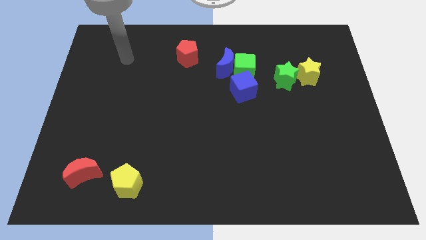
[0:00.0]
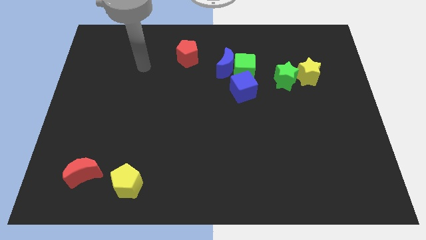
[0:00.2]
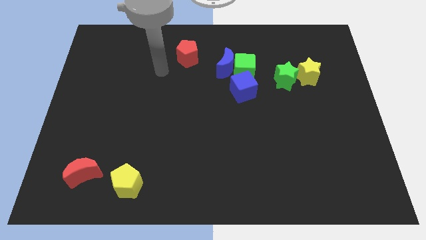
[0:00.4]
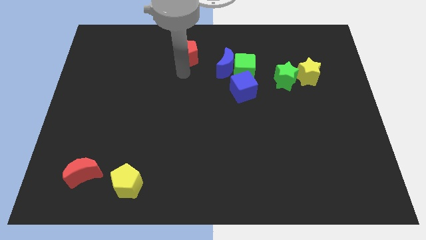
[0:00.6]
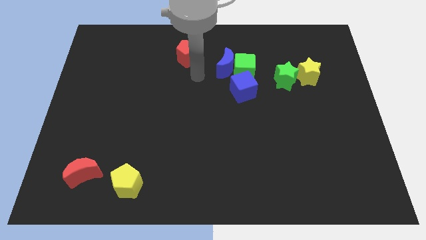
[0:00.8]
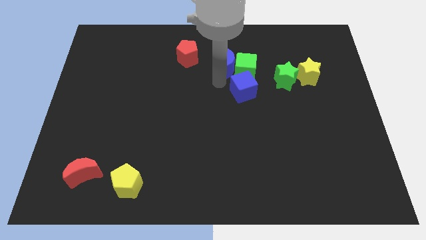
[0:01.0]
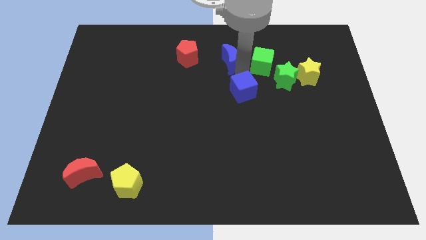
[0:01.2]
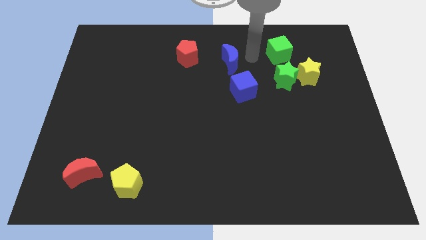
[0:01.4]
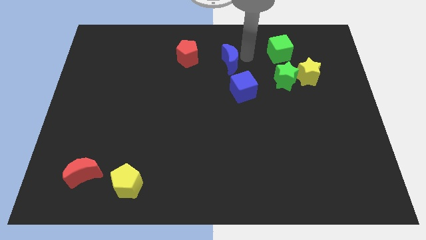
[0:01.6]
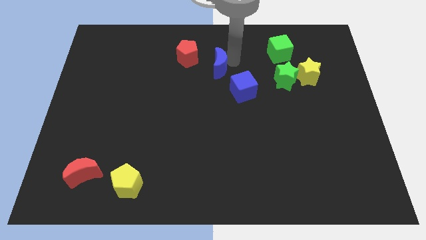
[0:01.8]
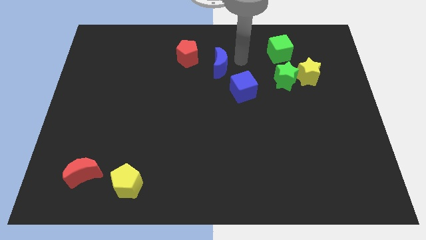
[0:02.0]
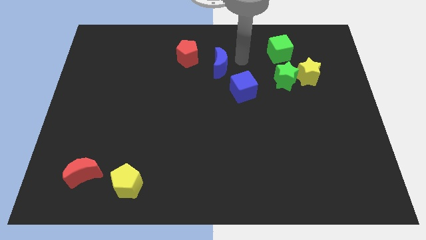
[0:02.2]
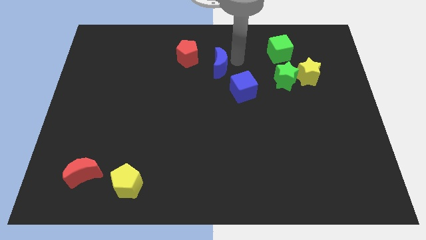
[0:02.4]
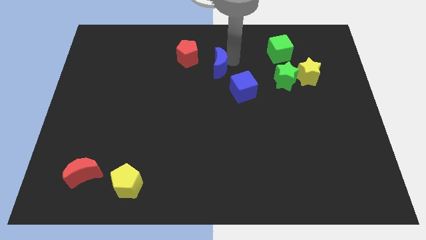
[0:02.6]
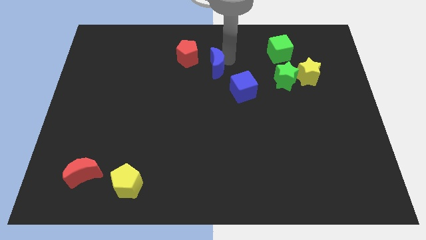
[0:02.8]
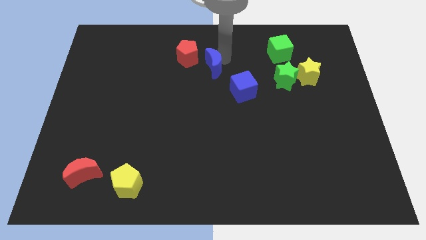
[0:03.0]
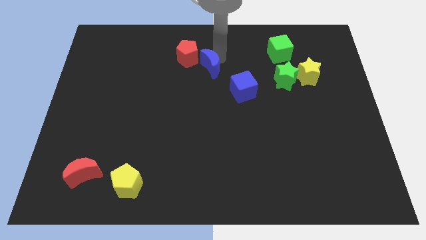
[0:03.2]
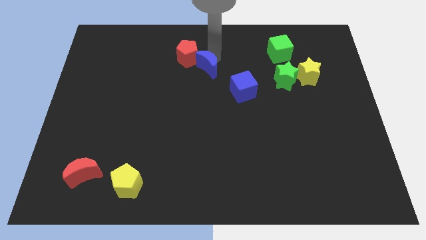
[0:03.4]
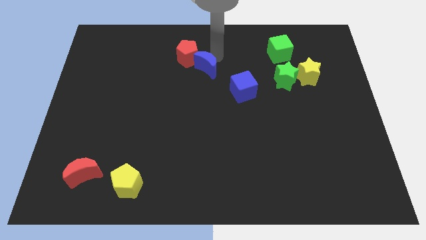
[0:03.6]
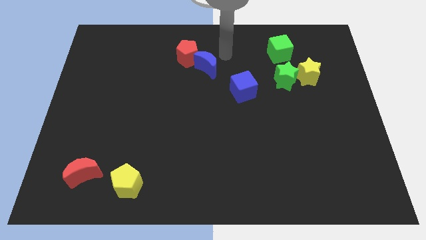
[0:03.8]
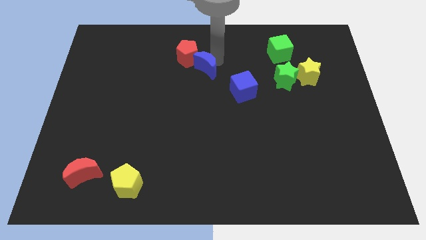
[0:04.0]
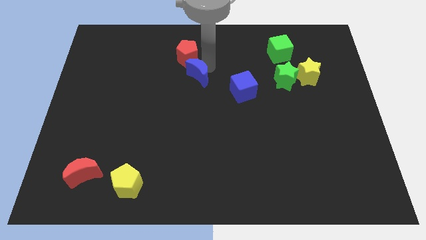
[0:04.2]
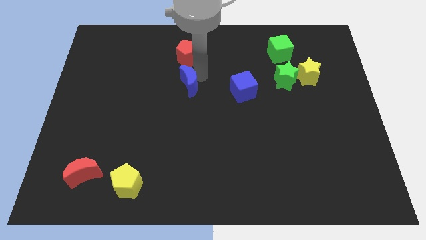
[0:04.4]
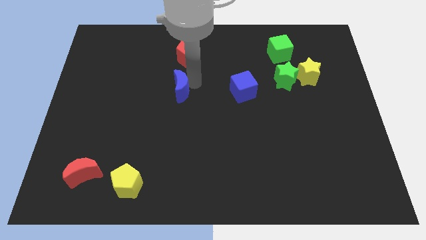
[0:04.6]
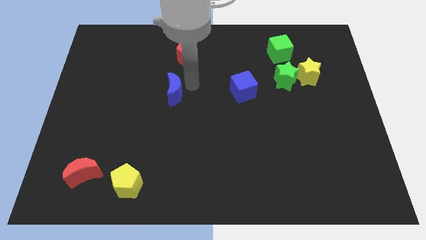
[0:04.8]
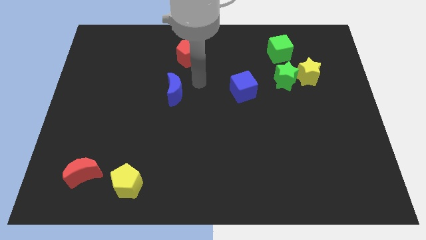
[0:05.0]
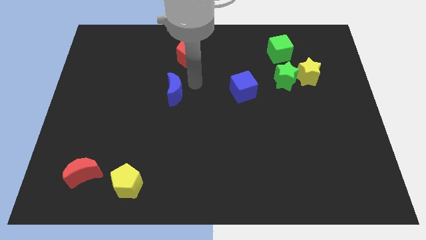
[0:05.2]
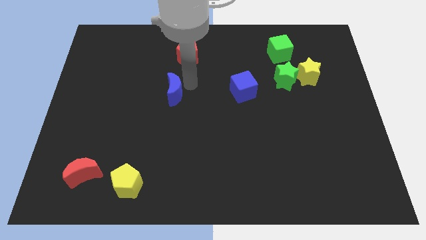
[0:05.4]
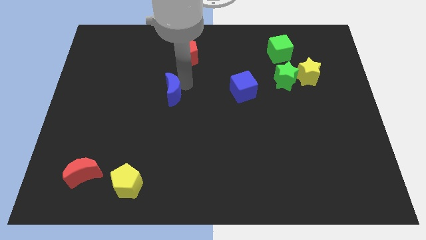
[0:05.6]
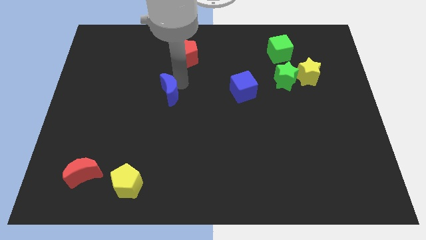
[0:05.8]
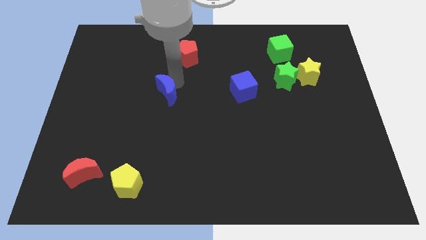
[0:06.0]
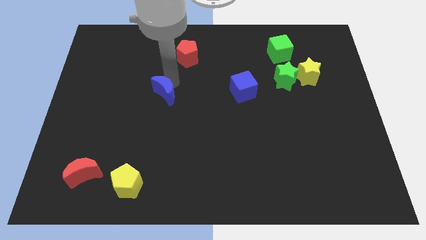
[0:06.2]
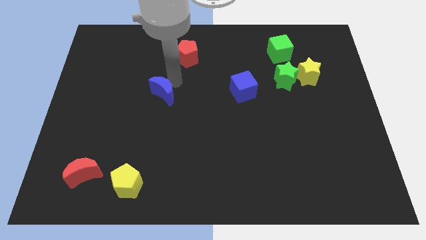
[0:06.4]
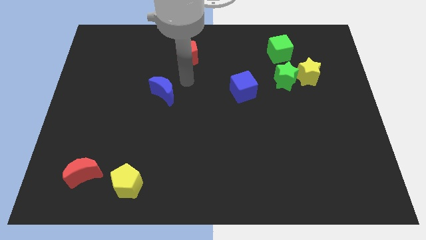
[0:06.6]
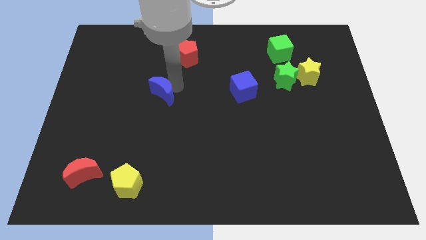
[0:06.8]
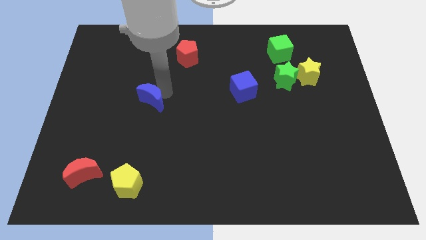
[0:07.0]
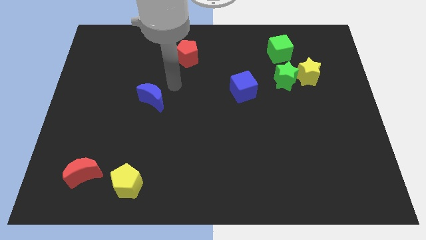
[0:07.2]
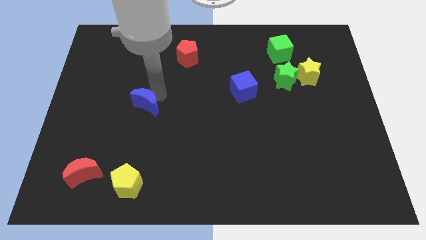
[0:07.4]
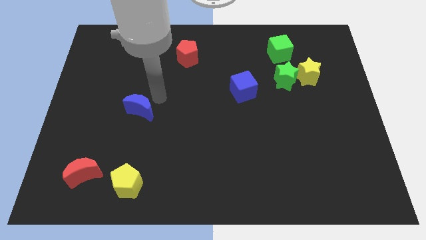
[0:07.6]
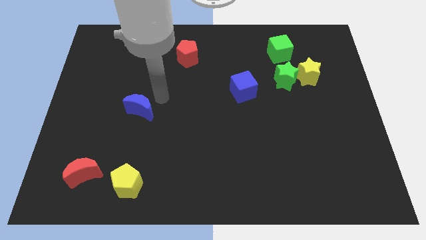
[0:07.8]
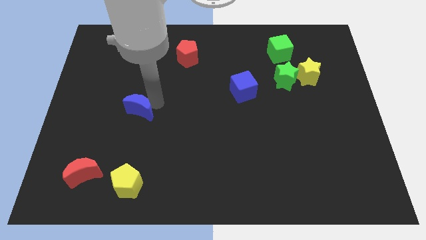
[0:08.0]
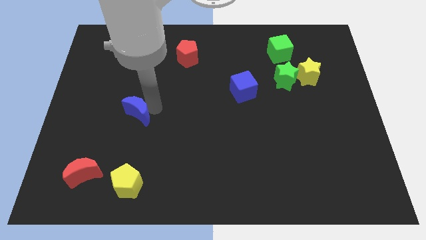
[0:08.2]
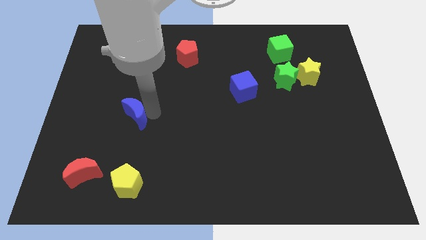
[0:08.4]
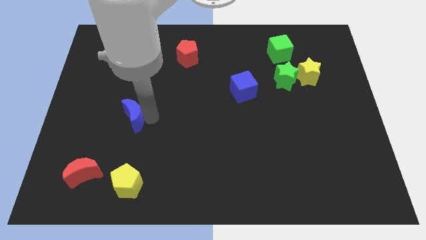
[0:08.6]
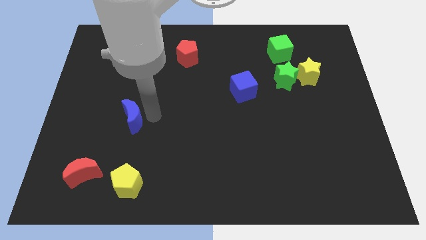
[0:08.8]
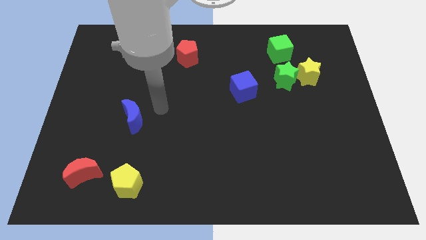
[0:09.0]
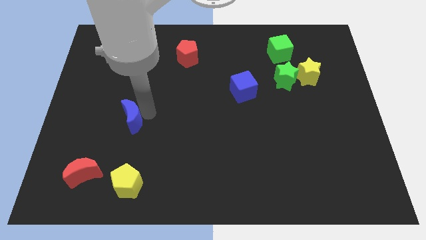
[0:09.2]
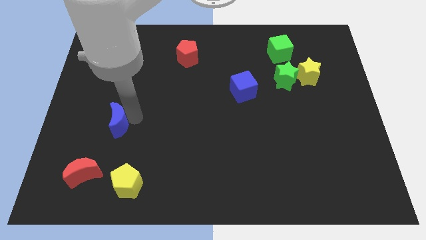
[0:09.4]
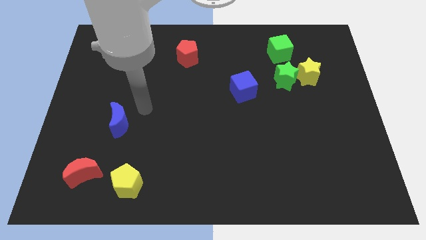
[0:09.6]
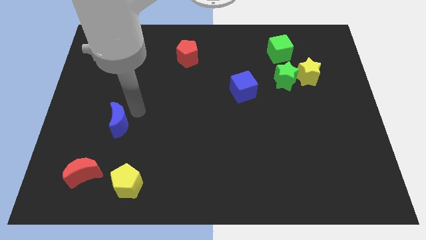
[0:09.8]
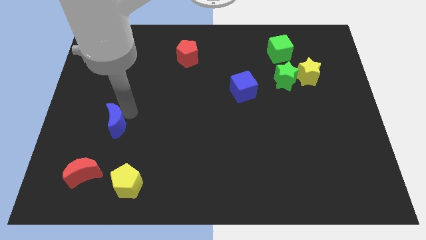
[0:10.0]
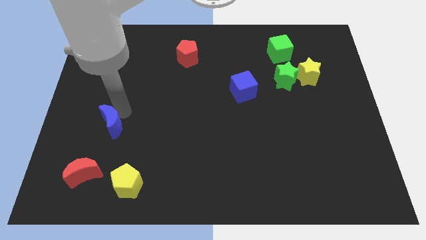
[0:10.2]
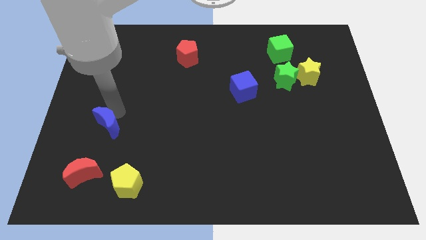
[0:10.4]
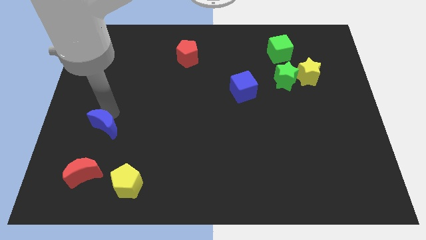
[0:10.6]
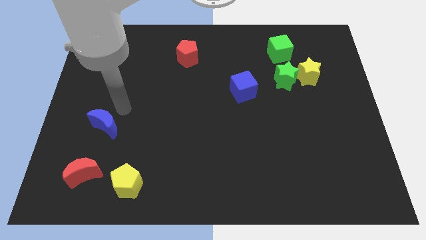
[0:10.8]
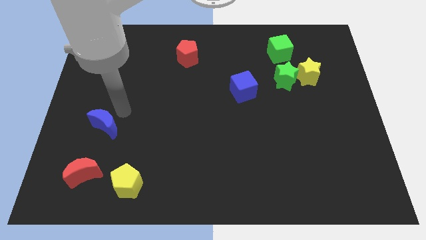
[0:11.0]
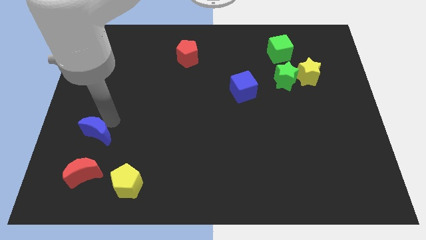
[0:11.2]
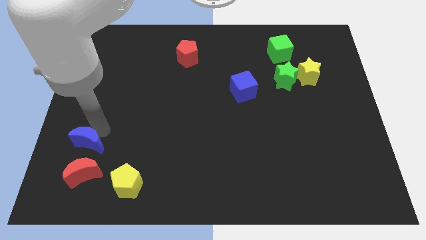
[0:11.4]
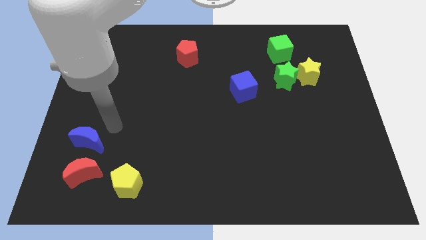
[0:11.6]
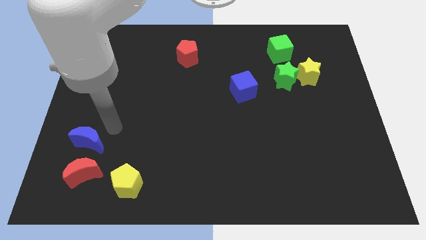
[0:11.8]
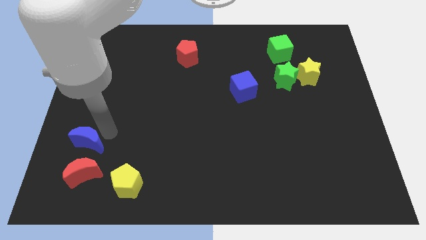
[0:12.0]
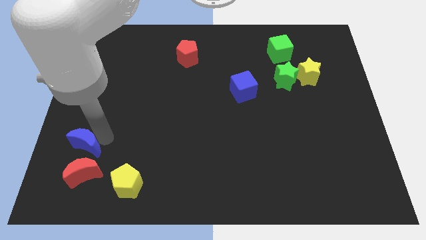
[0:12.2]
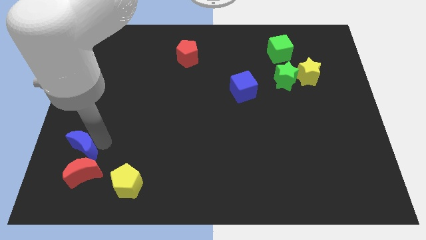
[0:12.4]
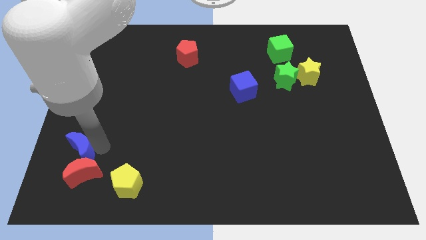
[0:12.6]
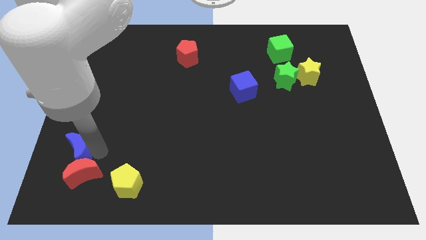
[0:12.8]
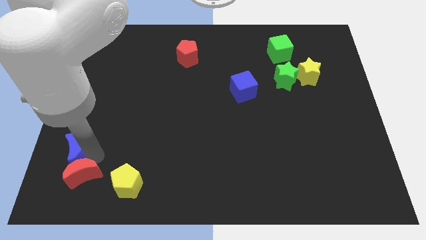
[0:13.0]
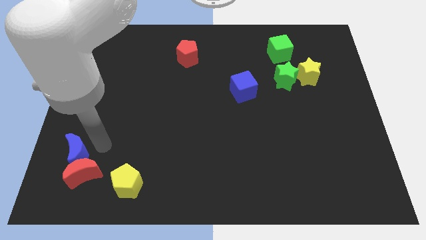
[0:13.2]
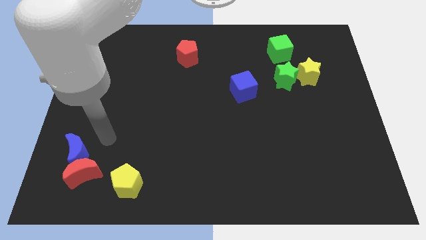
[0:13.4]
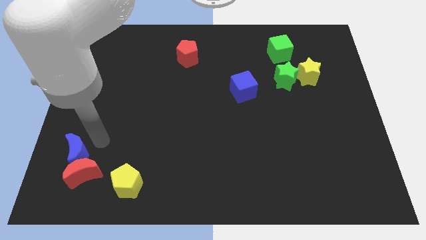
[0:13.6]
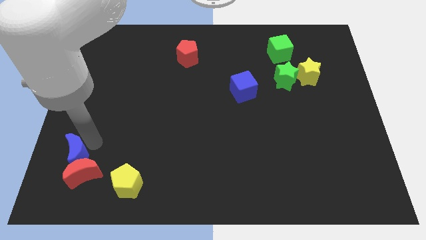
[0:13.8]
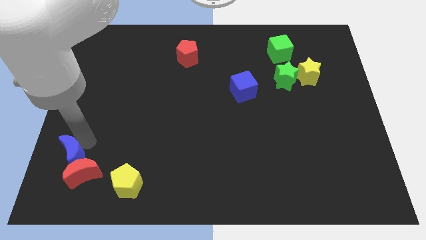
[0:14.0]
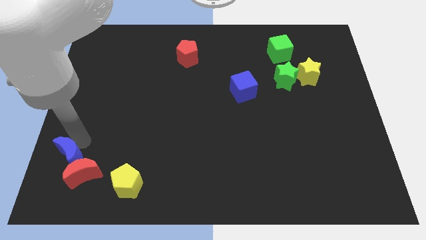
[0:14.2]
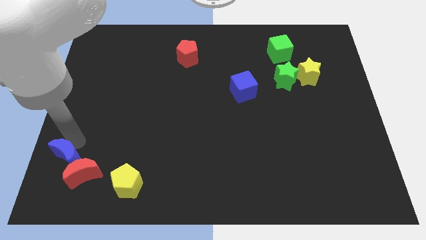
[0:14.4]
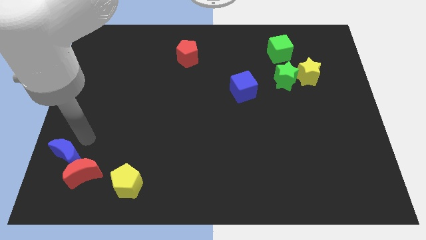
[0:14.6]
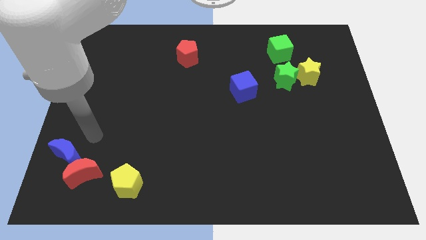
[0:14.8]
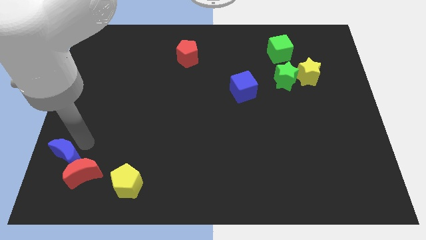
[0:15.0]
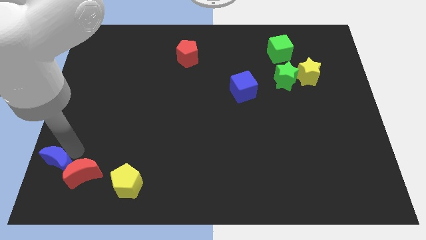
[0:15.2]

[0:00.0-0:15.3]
push the blue moon to the bottom left corner

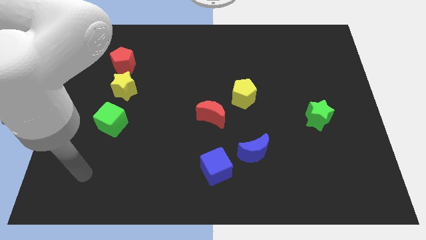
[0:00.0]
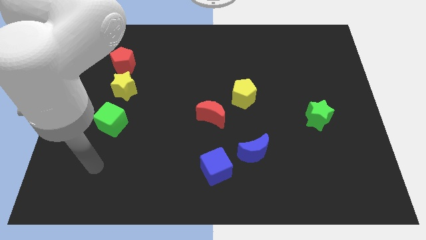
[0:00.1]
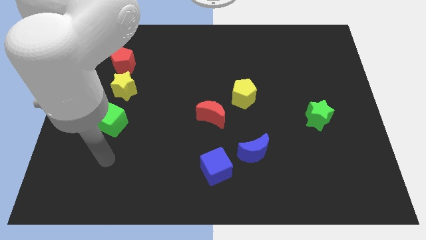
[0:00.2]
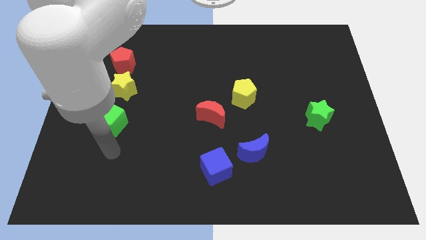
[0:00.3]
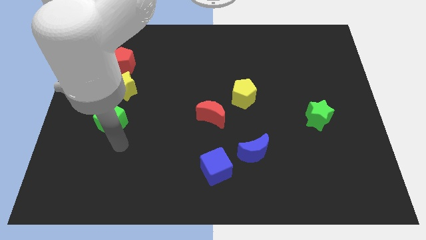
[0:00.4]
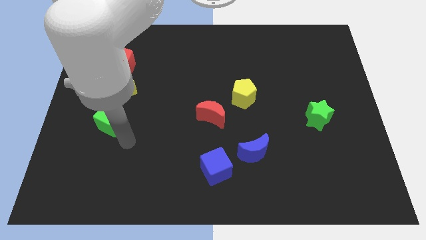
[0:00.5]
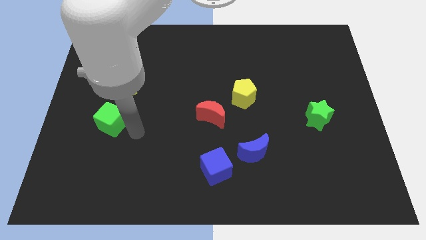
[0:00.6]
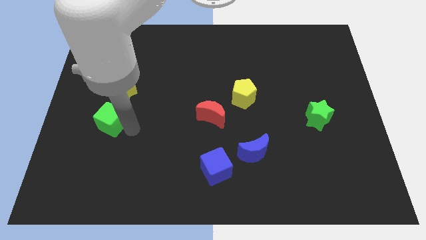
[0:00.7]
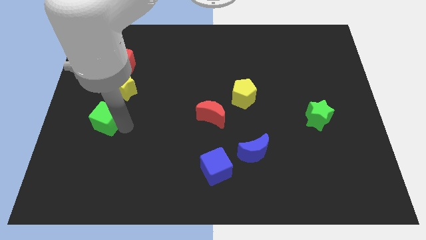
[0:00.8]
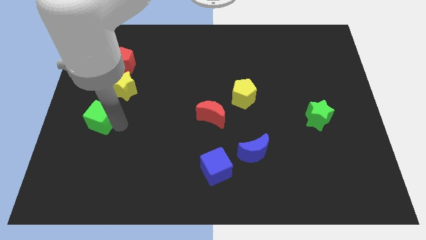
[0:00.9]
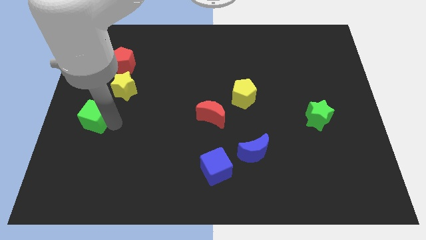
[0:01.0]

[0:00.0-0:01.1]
push the green cube to the center left
